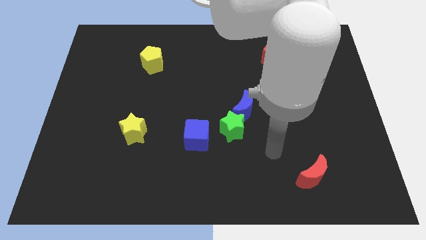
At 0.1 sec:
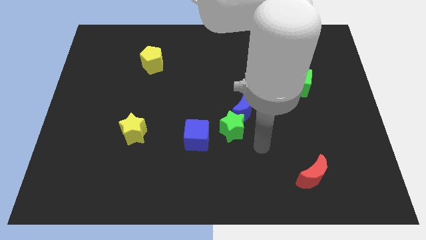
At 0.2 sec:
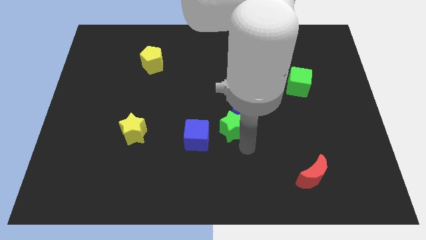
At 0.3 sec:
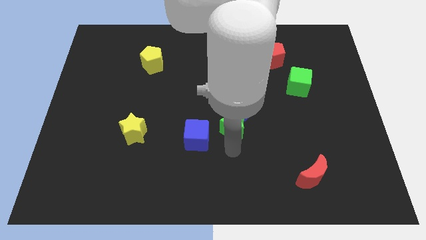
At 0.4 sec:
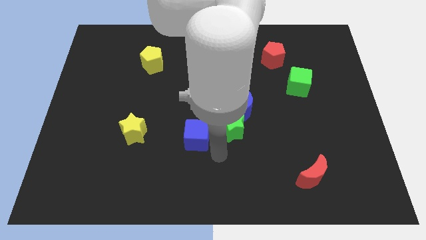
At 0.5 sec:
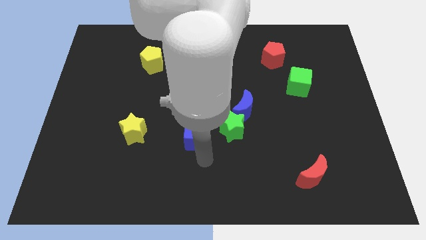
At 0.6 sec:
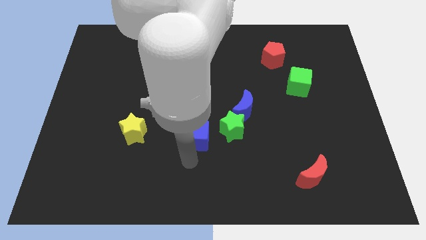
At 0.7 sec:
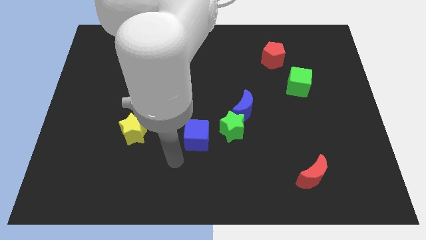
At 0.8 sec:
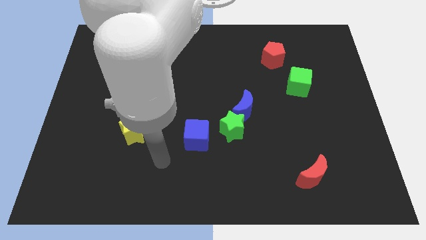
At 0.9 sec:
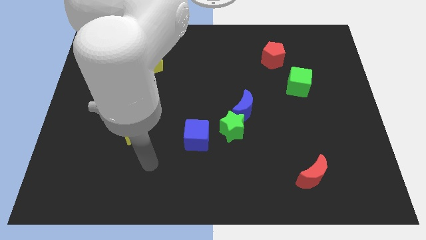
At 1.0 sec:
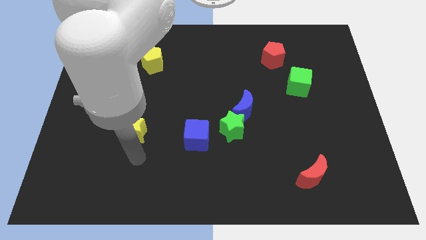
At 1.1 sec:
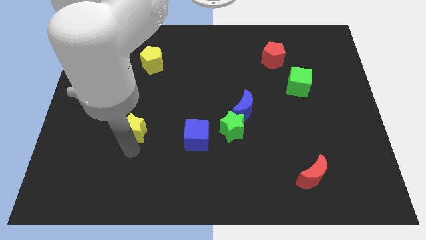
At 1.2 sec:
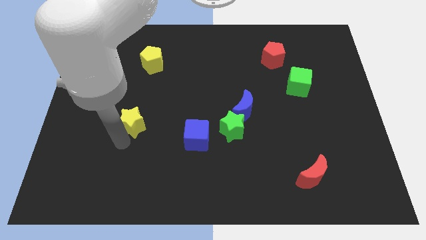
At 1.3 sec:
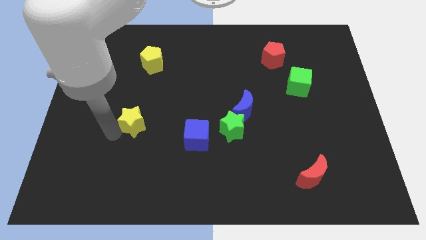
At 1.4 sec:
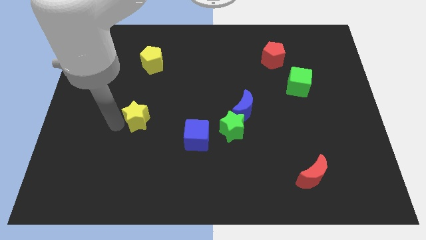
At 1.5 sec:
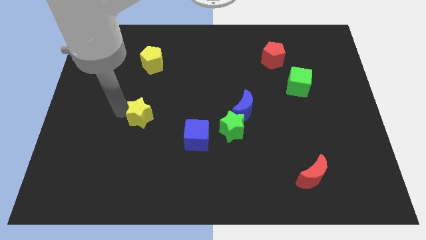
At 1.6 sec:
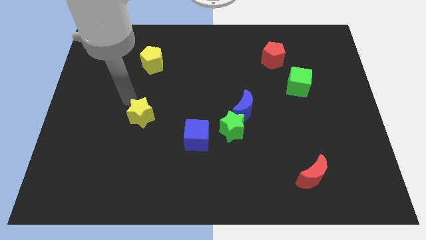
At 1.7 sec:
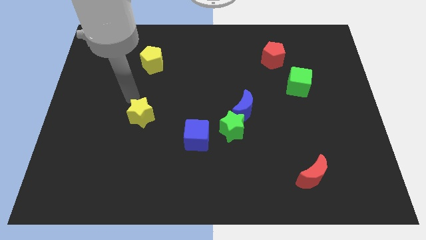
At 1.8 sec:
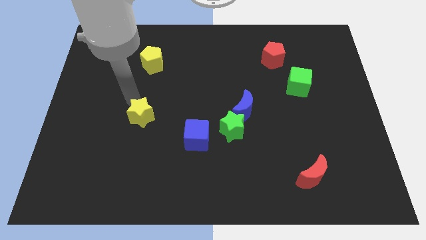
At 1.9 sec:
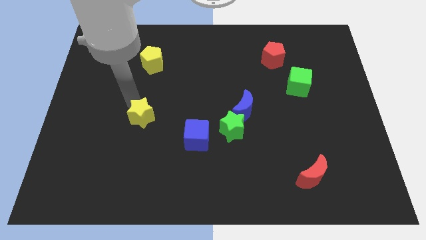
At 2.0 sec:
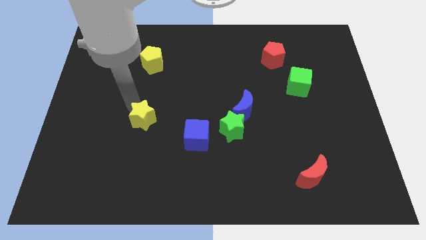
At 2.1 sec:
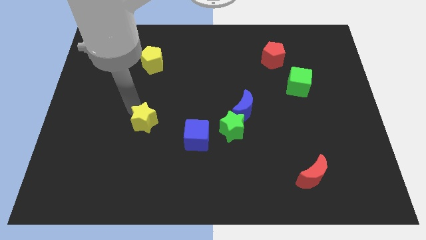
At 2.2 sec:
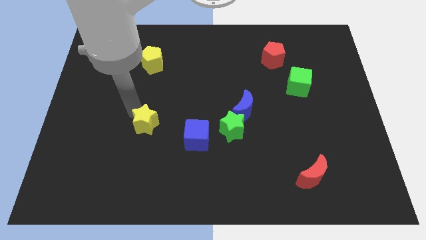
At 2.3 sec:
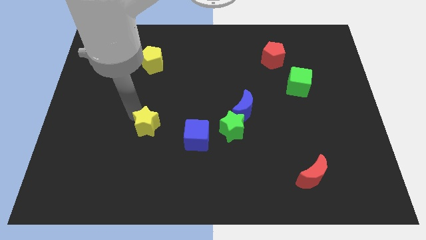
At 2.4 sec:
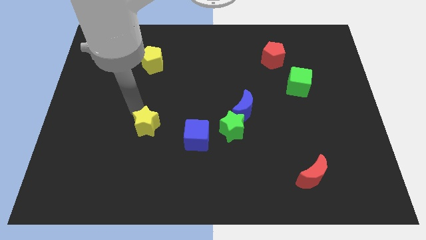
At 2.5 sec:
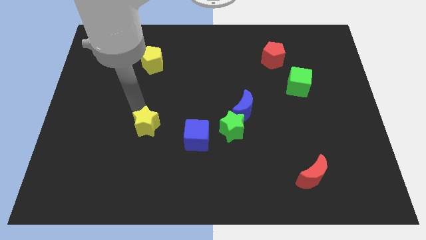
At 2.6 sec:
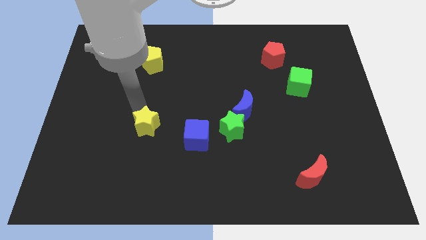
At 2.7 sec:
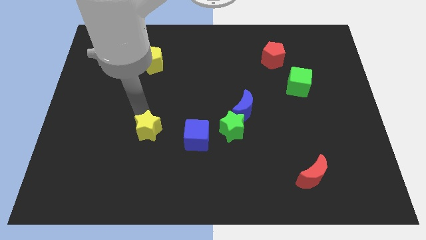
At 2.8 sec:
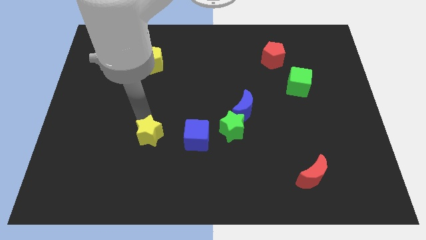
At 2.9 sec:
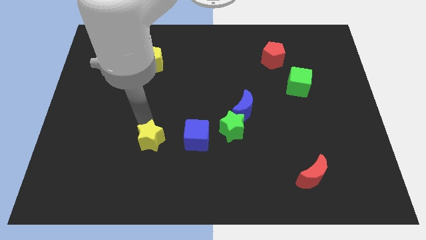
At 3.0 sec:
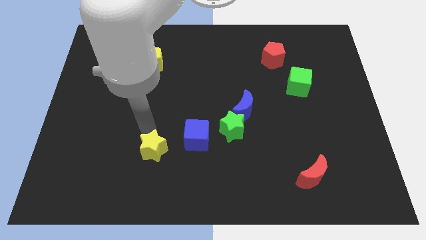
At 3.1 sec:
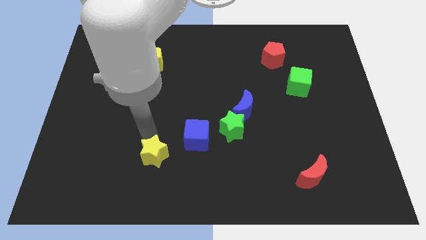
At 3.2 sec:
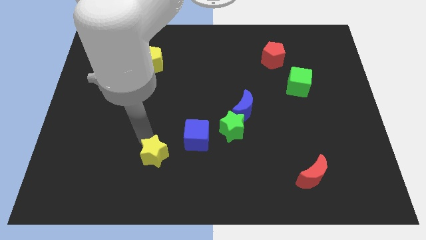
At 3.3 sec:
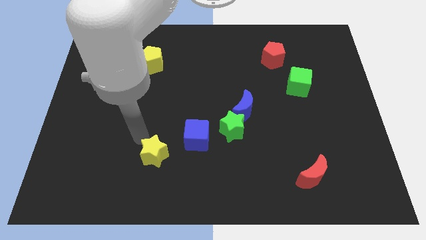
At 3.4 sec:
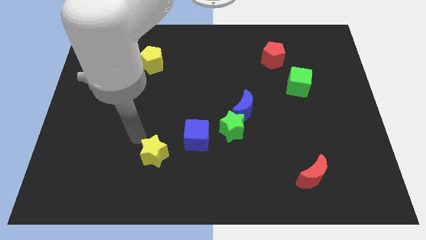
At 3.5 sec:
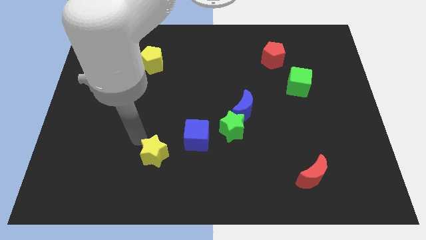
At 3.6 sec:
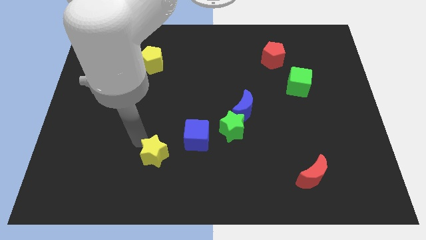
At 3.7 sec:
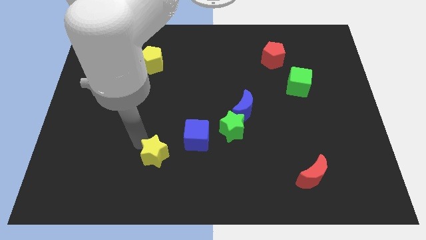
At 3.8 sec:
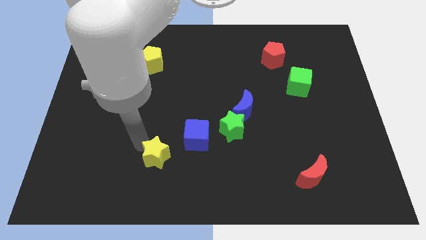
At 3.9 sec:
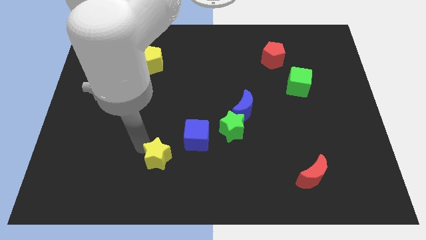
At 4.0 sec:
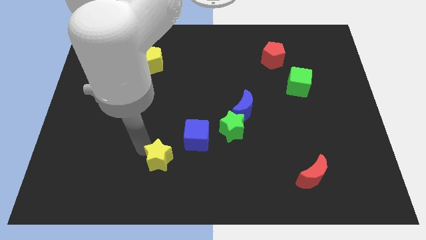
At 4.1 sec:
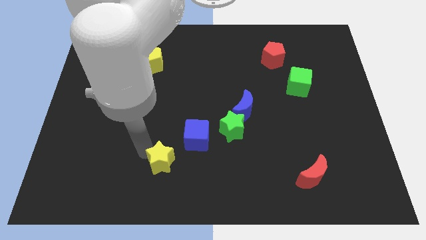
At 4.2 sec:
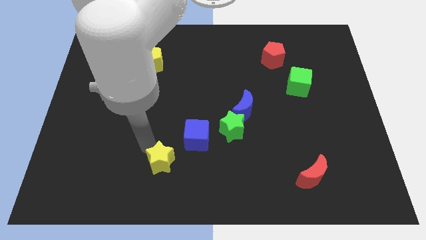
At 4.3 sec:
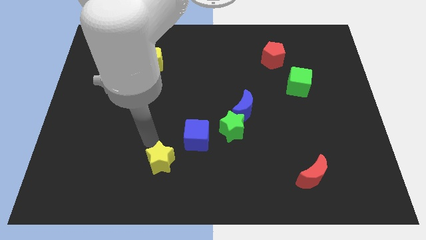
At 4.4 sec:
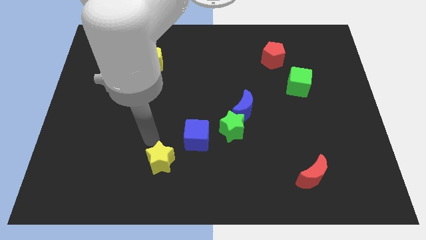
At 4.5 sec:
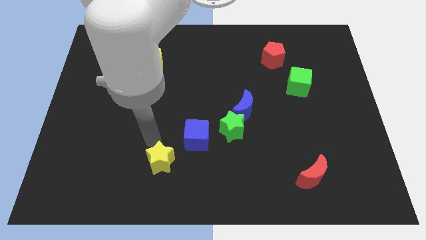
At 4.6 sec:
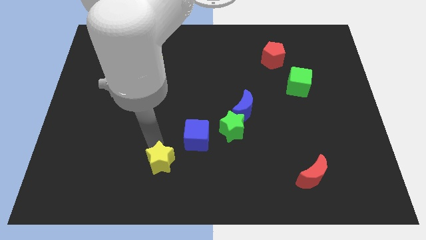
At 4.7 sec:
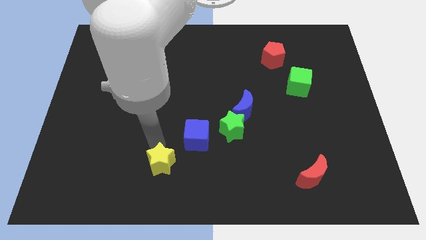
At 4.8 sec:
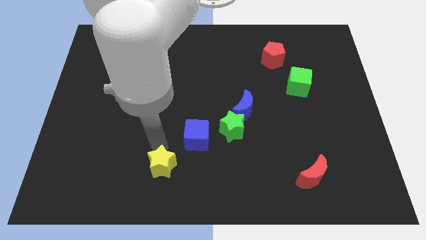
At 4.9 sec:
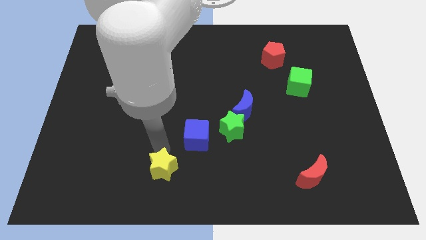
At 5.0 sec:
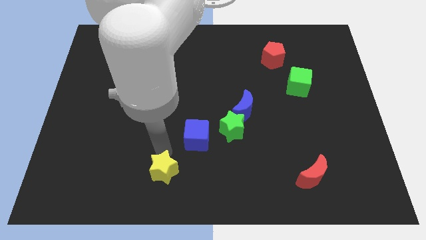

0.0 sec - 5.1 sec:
slide the yellow star to the bottom side

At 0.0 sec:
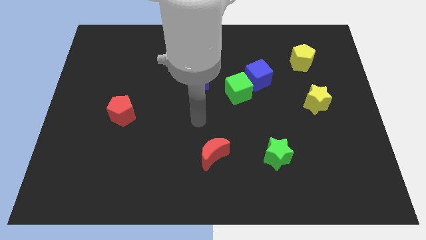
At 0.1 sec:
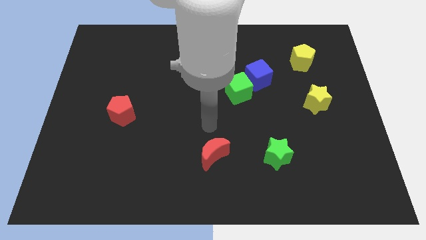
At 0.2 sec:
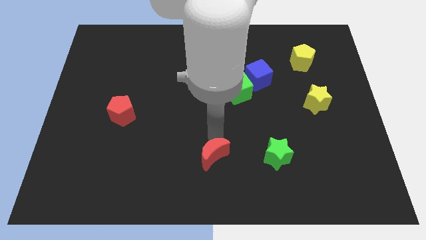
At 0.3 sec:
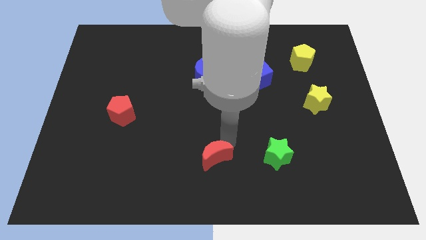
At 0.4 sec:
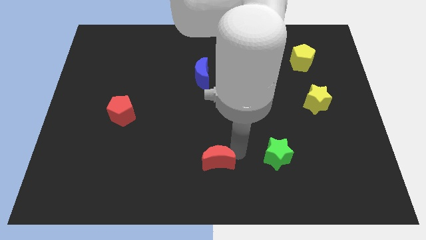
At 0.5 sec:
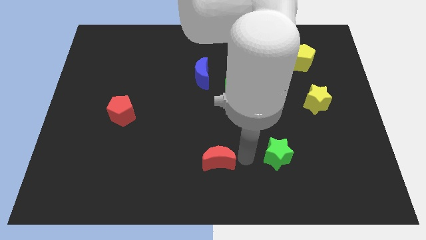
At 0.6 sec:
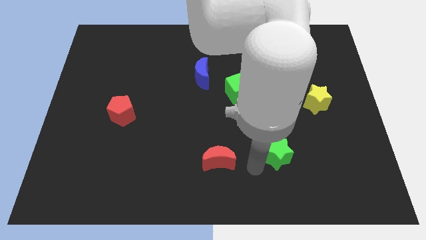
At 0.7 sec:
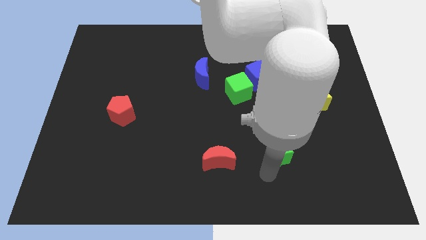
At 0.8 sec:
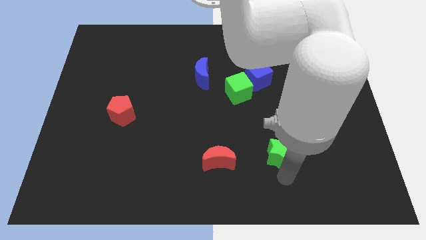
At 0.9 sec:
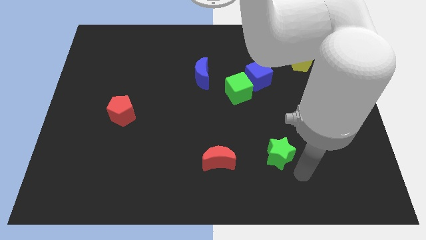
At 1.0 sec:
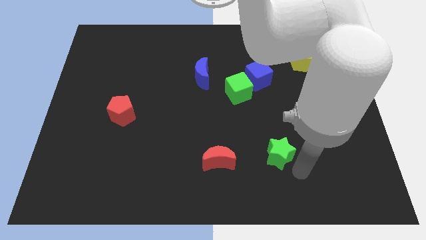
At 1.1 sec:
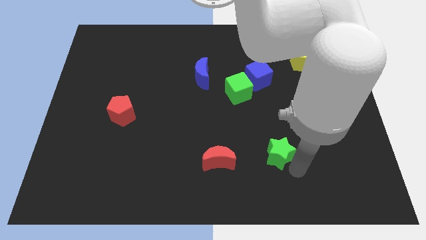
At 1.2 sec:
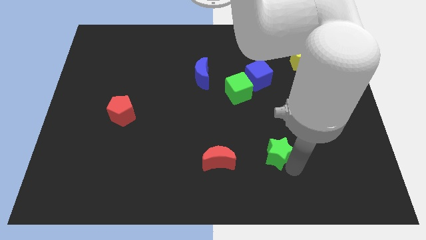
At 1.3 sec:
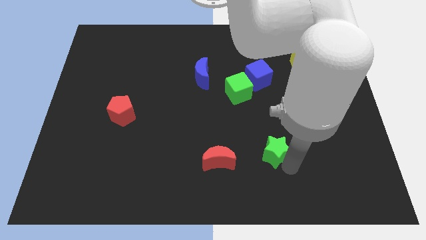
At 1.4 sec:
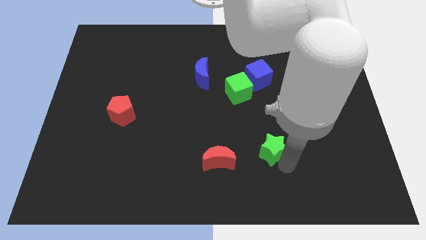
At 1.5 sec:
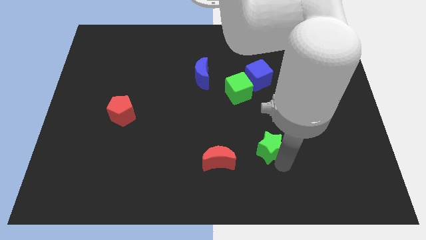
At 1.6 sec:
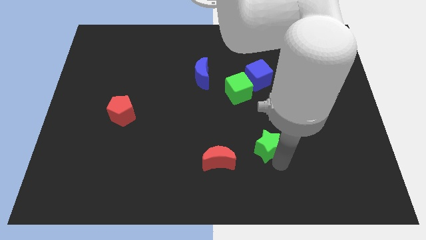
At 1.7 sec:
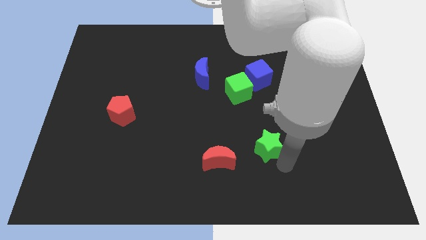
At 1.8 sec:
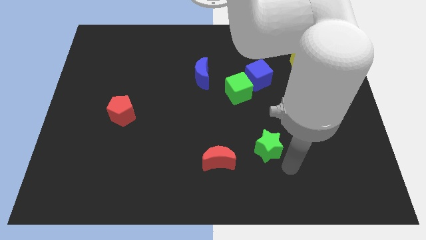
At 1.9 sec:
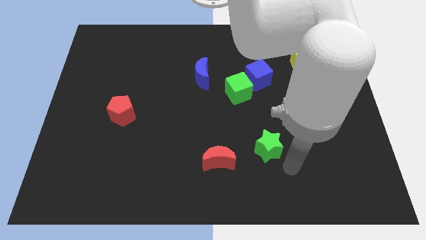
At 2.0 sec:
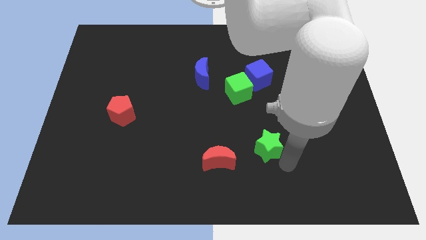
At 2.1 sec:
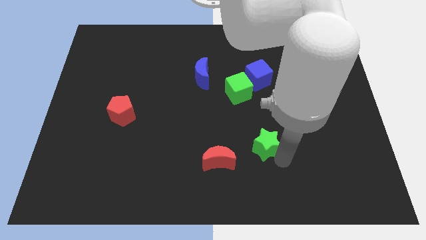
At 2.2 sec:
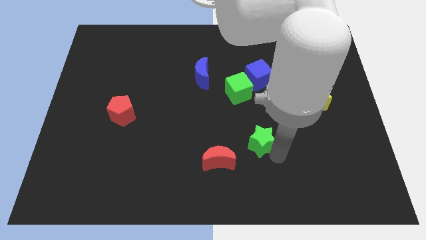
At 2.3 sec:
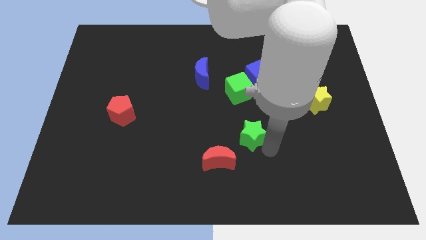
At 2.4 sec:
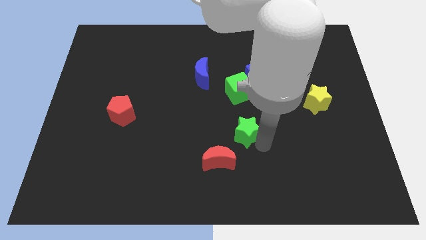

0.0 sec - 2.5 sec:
push the green star to the middle of the board
